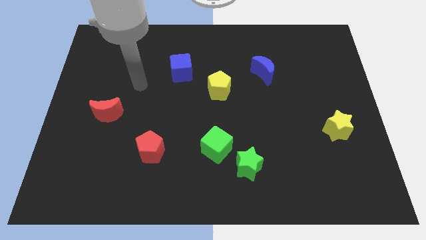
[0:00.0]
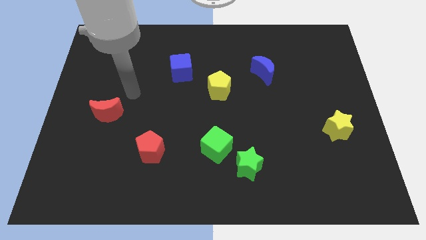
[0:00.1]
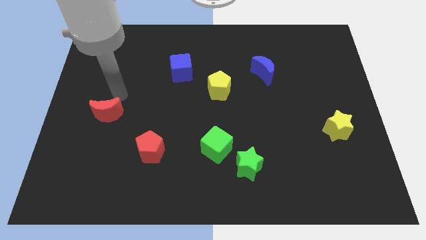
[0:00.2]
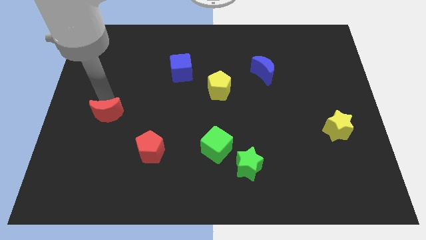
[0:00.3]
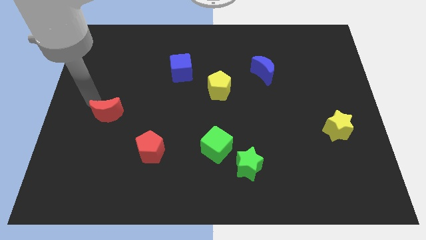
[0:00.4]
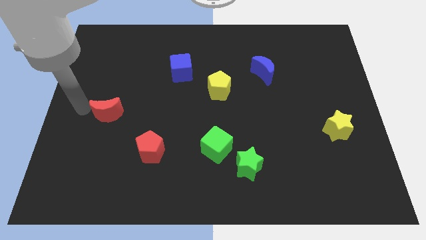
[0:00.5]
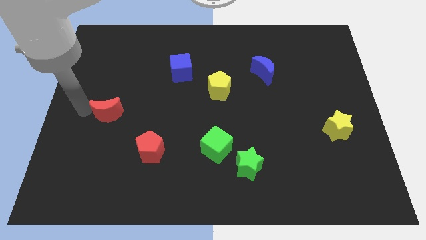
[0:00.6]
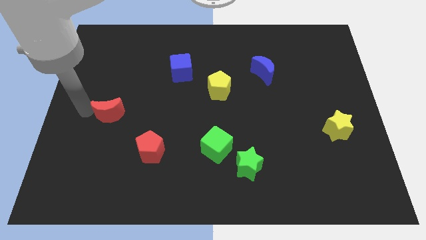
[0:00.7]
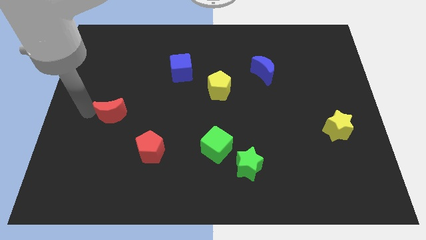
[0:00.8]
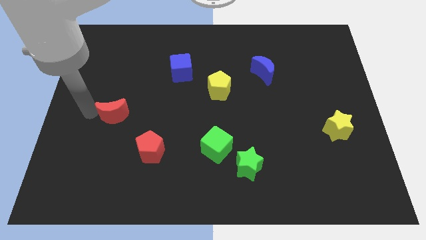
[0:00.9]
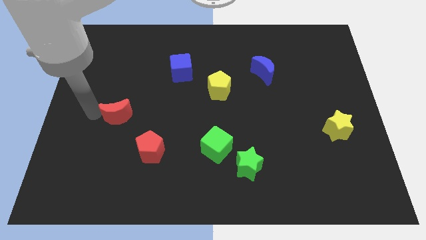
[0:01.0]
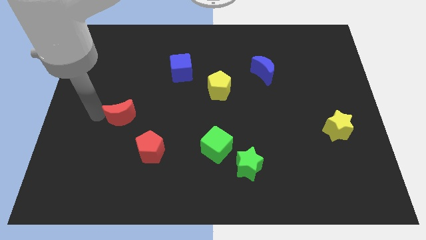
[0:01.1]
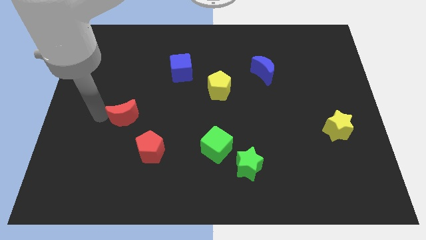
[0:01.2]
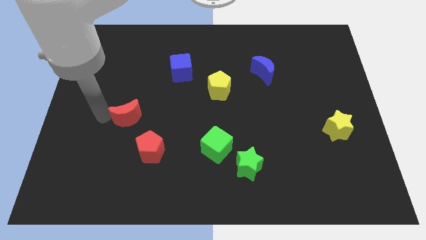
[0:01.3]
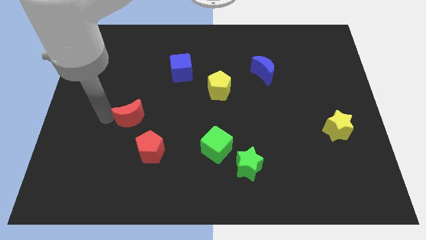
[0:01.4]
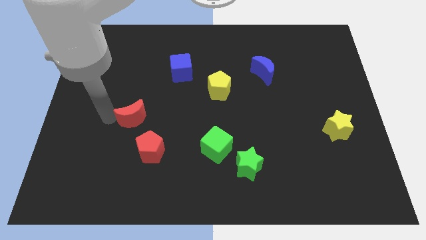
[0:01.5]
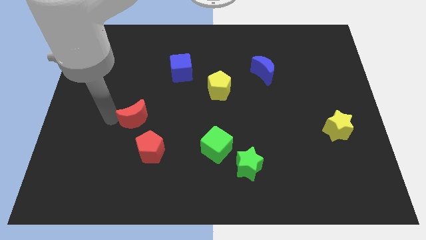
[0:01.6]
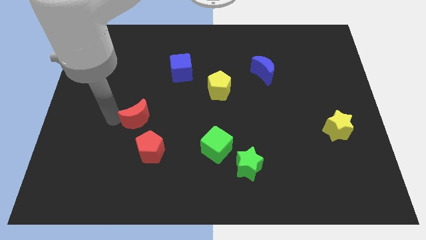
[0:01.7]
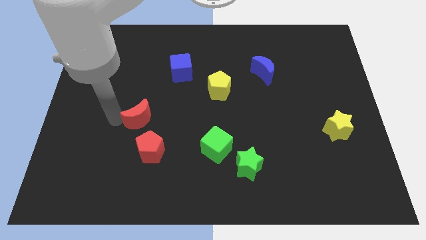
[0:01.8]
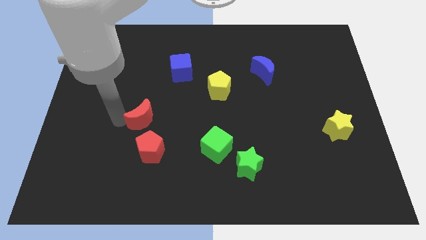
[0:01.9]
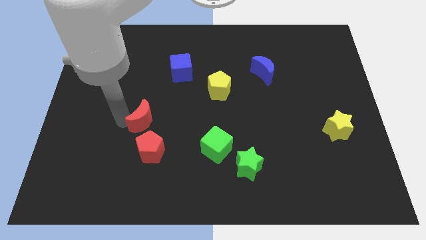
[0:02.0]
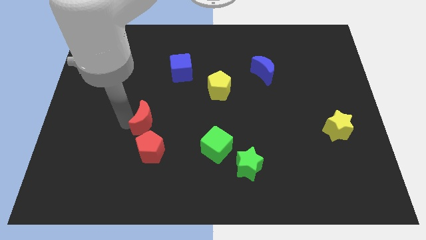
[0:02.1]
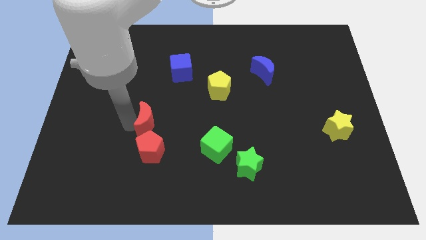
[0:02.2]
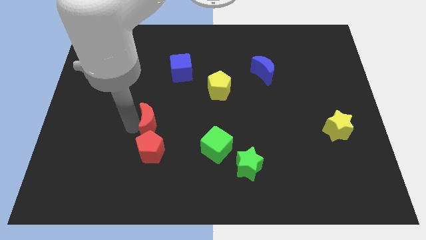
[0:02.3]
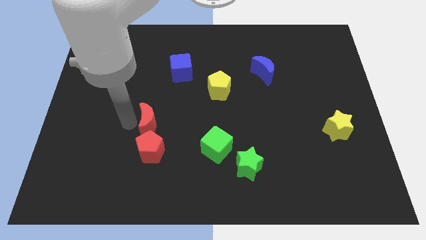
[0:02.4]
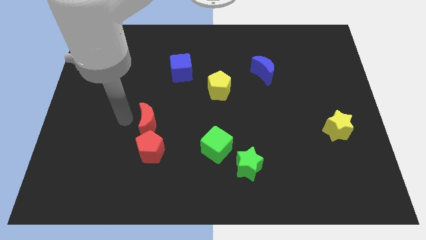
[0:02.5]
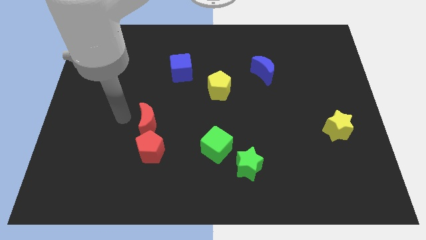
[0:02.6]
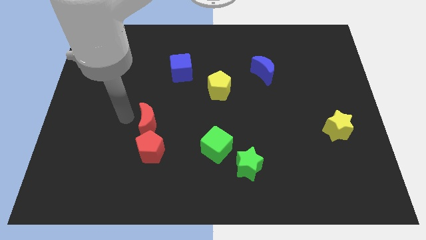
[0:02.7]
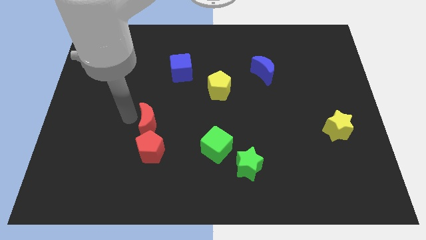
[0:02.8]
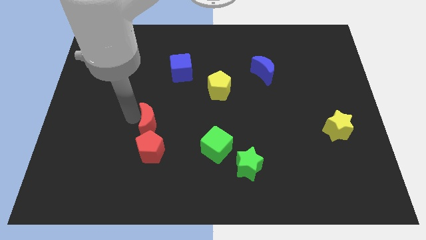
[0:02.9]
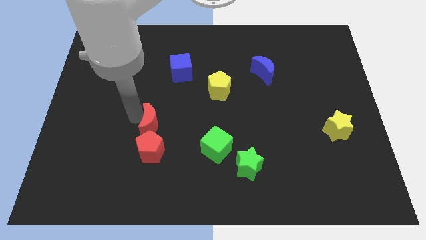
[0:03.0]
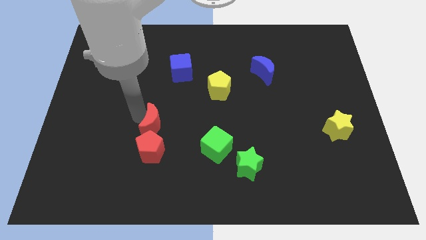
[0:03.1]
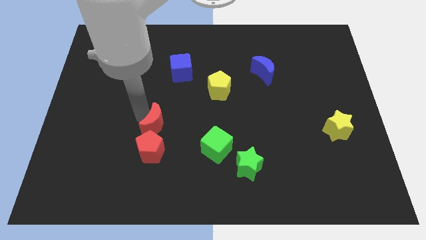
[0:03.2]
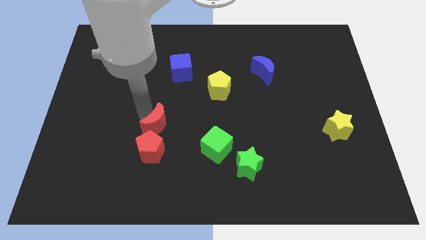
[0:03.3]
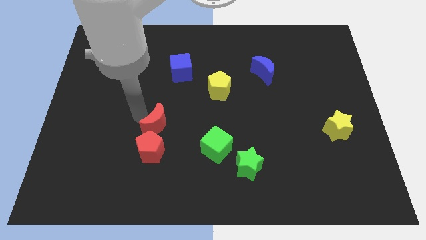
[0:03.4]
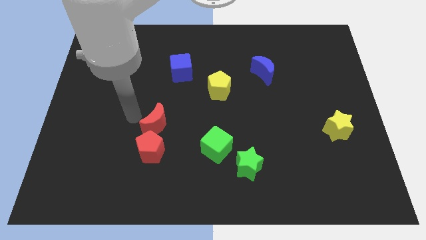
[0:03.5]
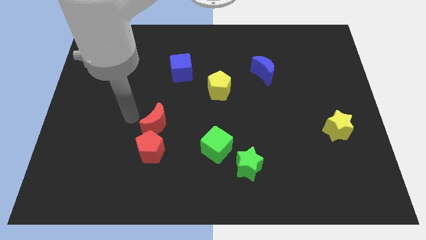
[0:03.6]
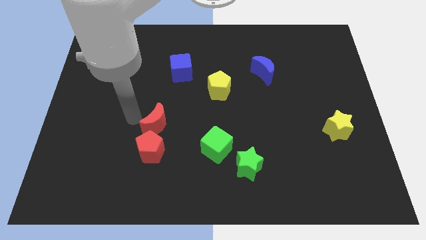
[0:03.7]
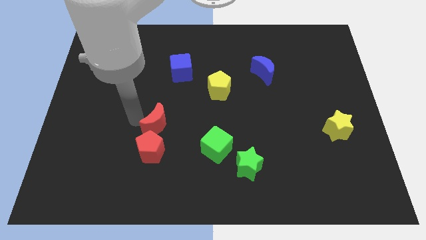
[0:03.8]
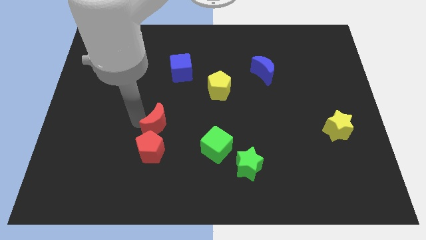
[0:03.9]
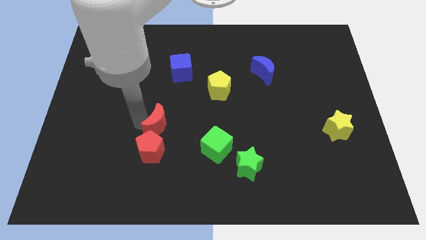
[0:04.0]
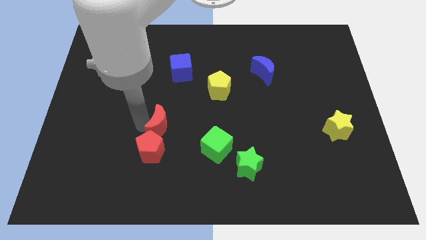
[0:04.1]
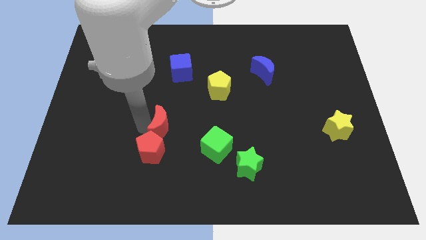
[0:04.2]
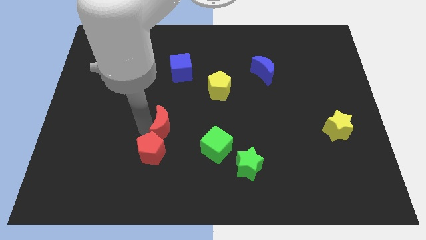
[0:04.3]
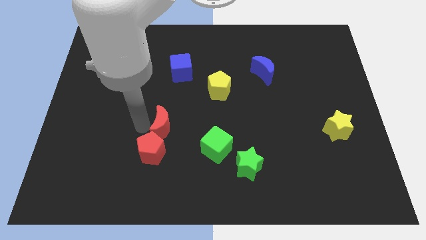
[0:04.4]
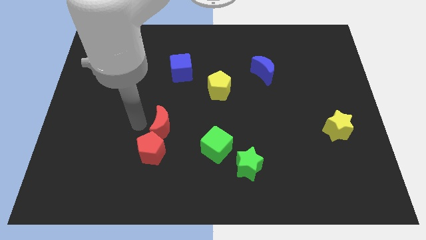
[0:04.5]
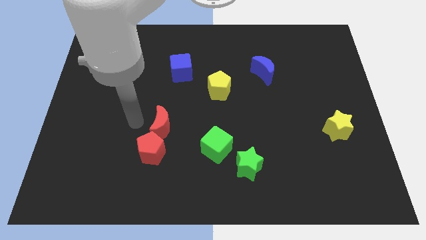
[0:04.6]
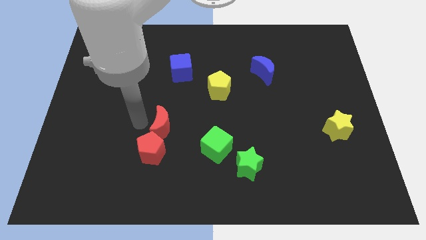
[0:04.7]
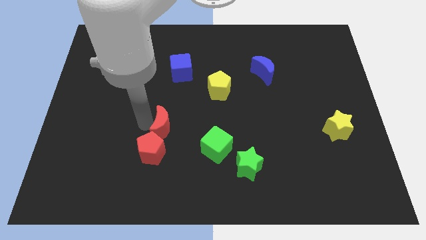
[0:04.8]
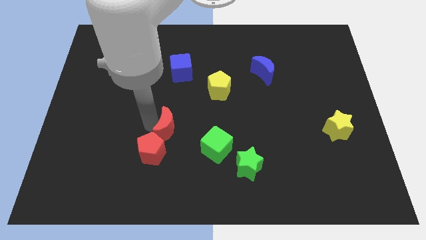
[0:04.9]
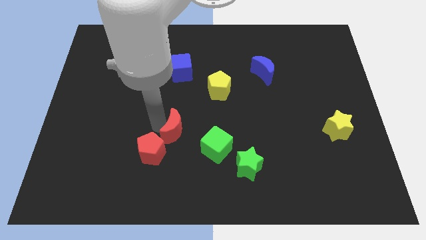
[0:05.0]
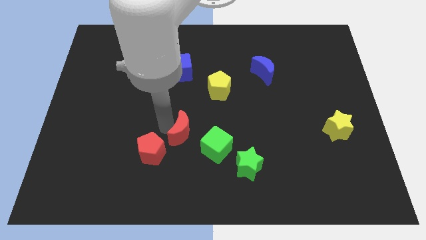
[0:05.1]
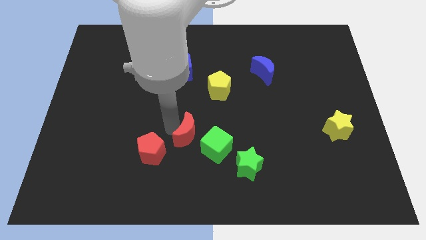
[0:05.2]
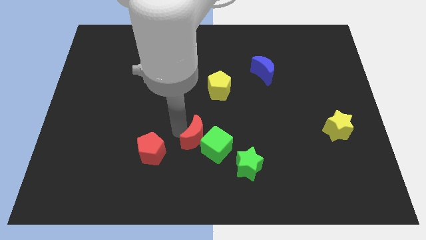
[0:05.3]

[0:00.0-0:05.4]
slide the red moon towards the green cube

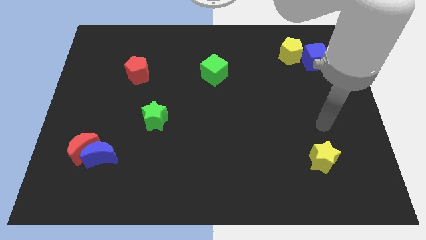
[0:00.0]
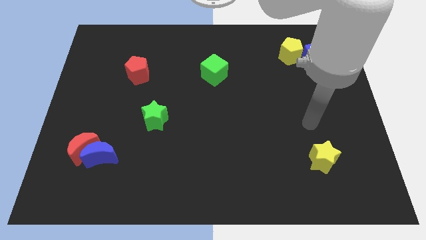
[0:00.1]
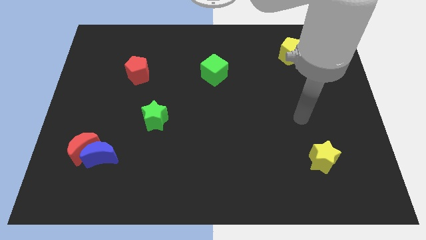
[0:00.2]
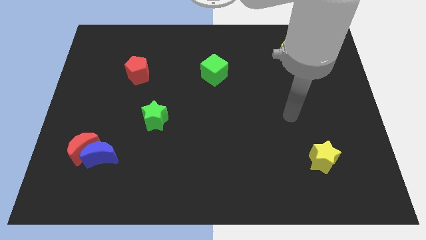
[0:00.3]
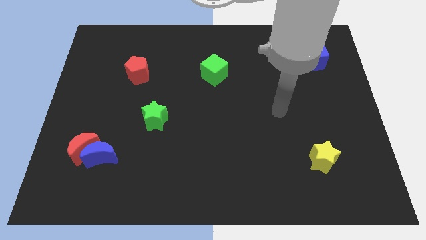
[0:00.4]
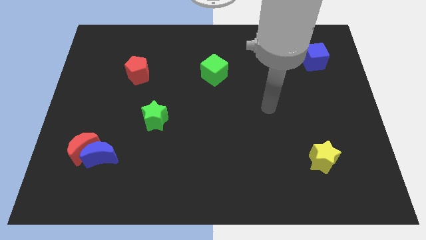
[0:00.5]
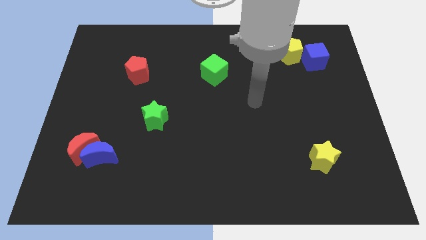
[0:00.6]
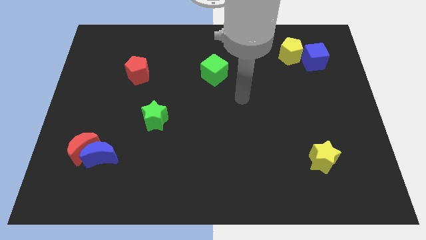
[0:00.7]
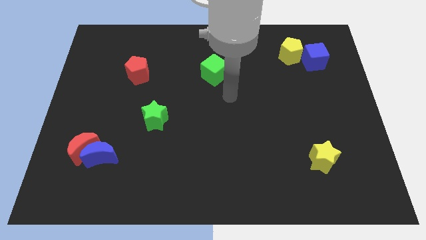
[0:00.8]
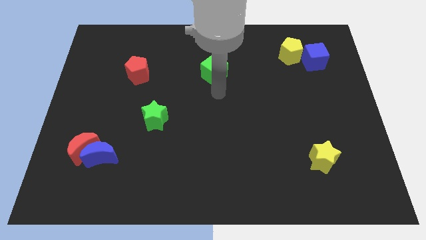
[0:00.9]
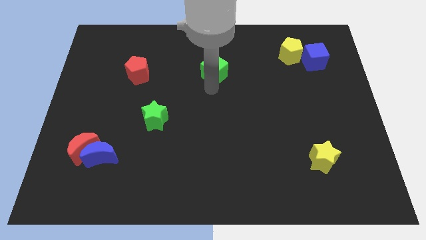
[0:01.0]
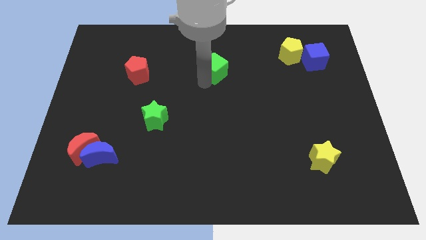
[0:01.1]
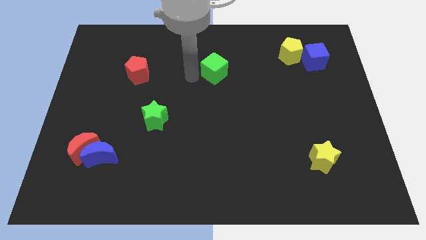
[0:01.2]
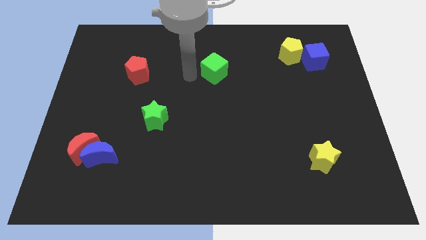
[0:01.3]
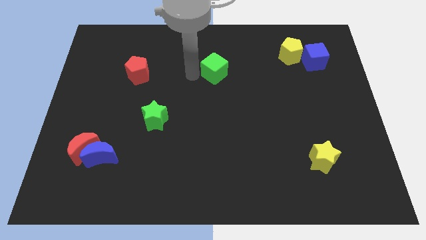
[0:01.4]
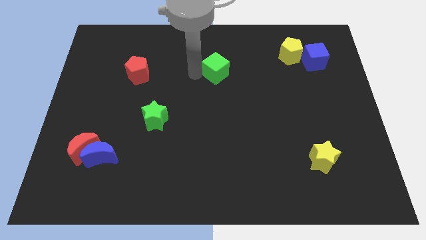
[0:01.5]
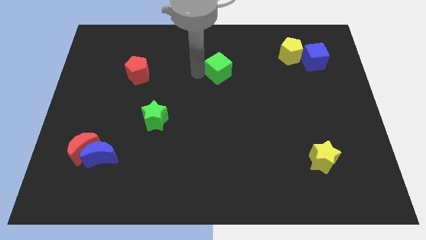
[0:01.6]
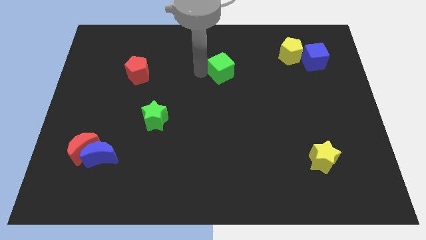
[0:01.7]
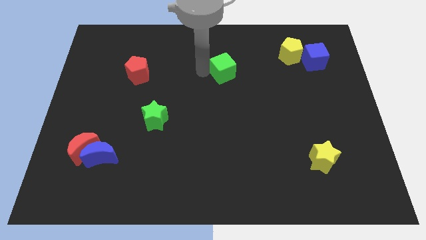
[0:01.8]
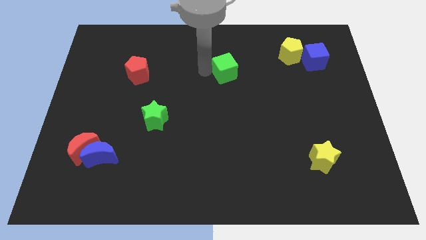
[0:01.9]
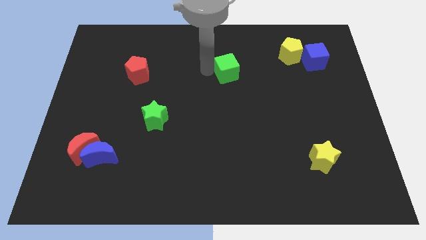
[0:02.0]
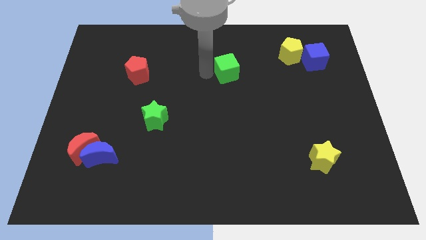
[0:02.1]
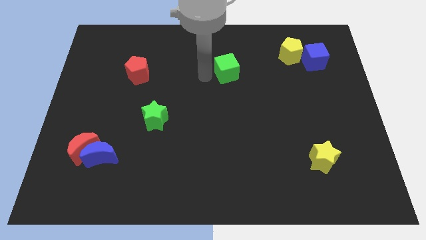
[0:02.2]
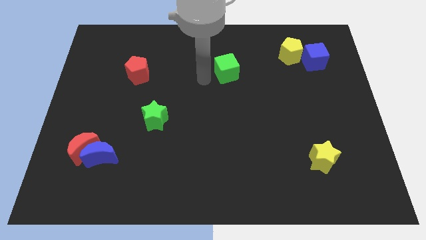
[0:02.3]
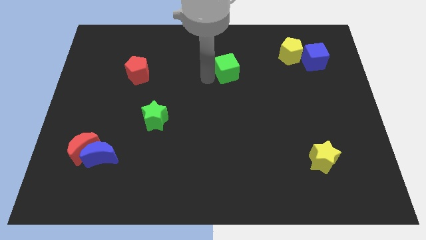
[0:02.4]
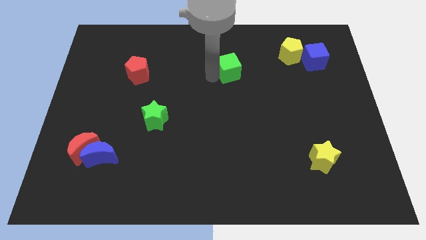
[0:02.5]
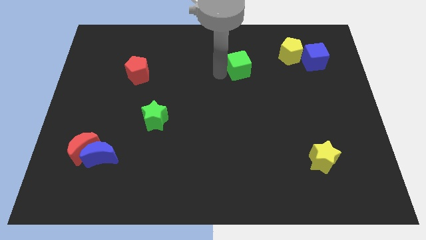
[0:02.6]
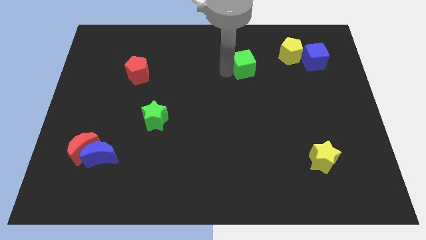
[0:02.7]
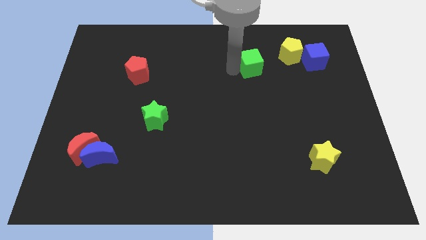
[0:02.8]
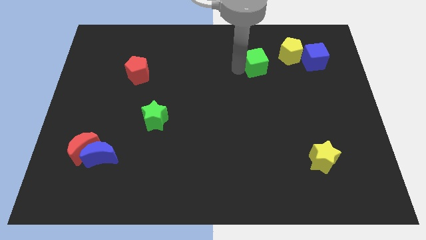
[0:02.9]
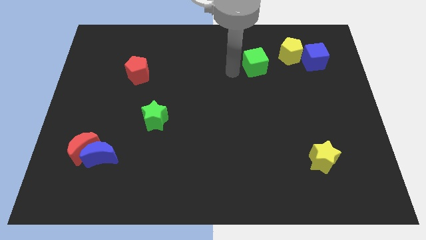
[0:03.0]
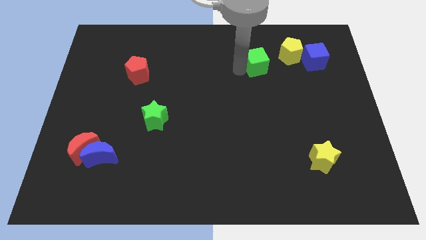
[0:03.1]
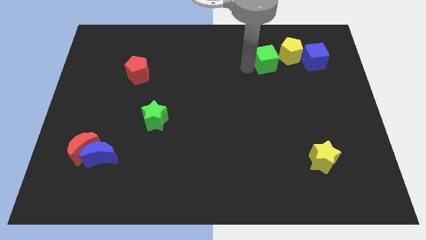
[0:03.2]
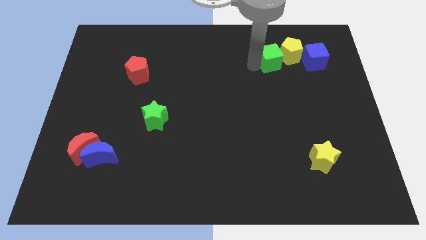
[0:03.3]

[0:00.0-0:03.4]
put the green cube close to the yellow pentagon
